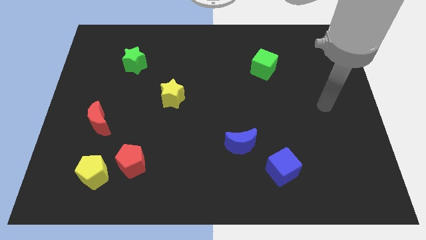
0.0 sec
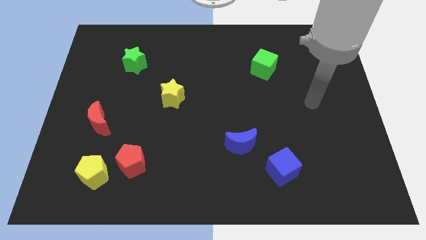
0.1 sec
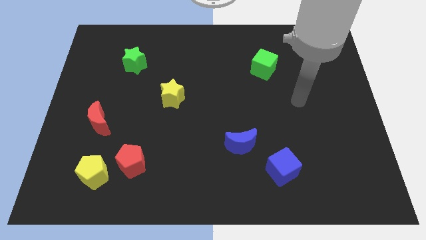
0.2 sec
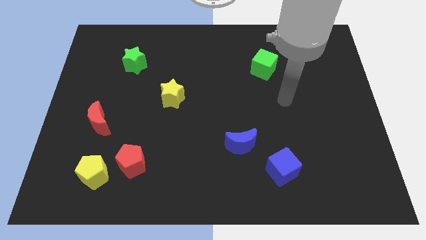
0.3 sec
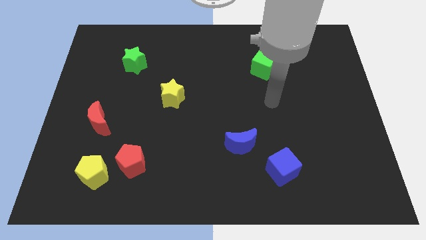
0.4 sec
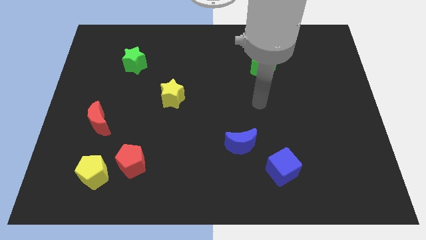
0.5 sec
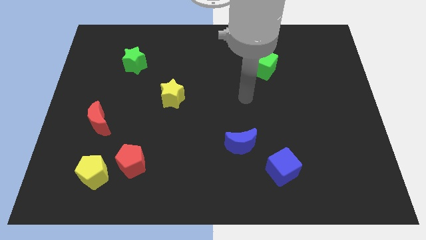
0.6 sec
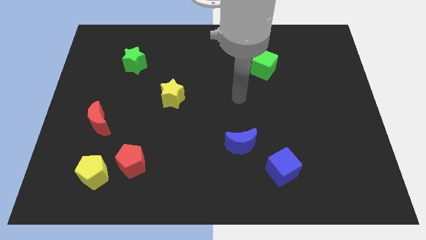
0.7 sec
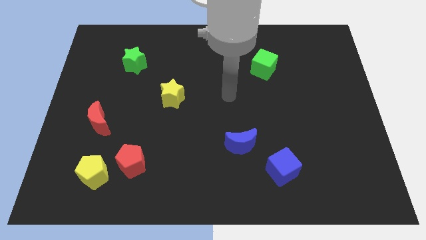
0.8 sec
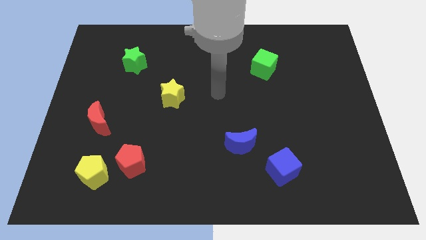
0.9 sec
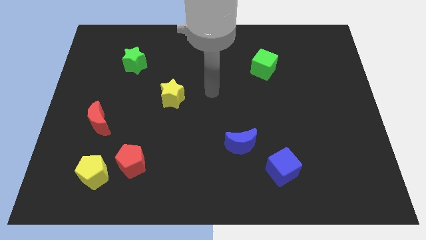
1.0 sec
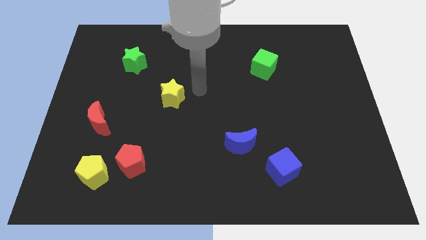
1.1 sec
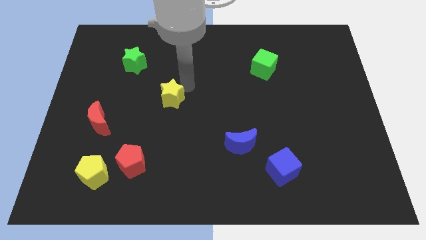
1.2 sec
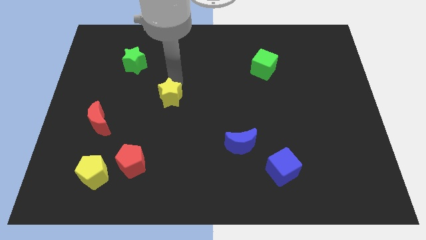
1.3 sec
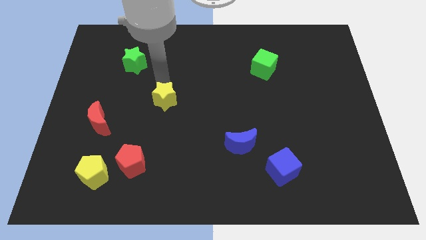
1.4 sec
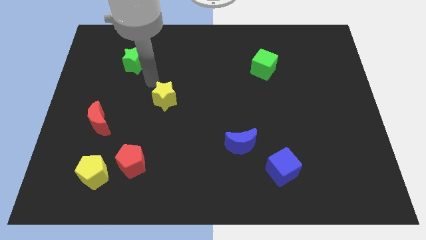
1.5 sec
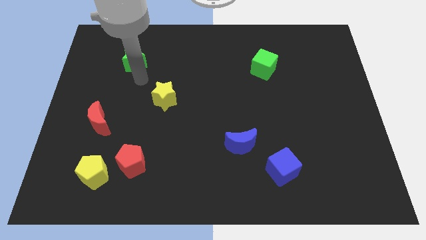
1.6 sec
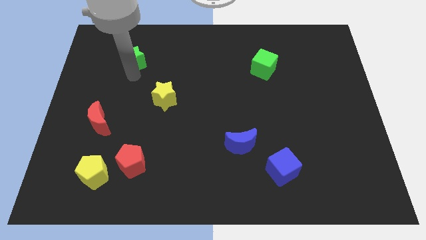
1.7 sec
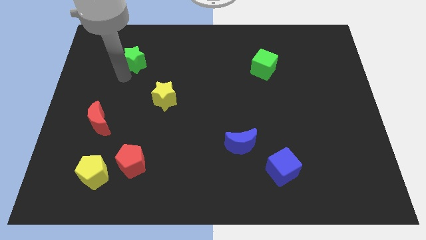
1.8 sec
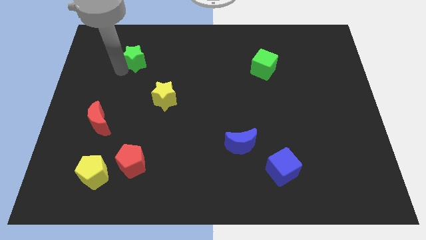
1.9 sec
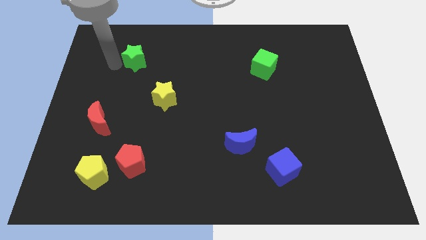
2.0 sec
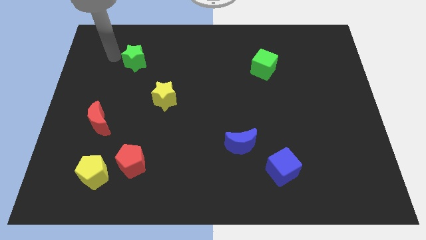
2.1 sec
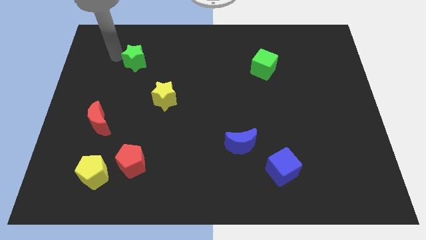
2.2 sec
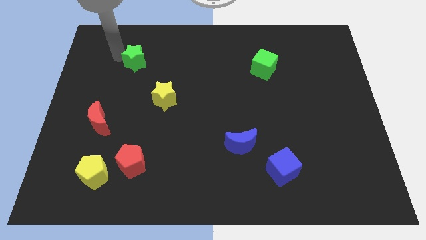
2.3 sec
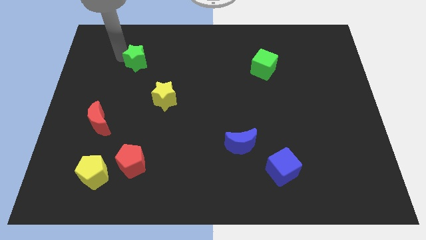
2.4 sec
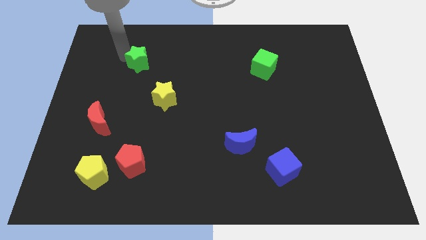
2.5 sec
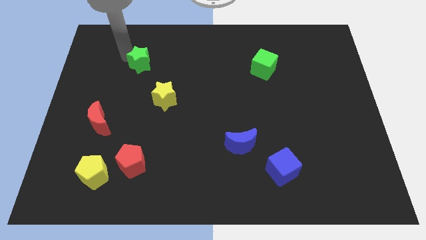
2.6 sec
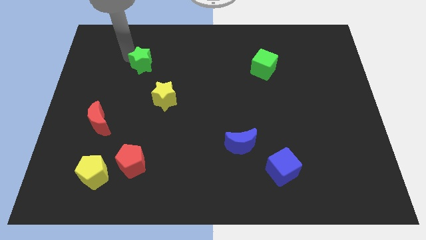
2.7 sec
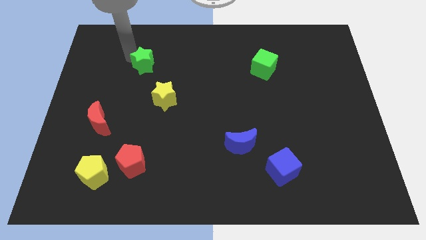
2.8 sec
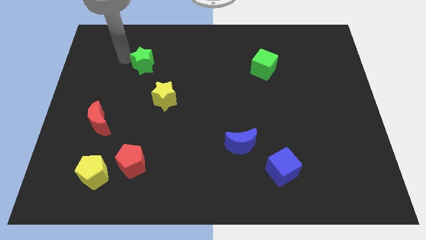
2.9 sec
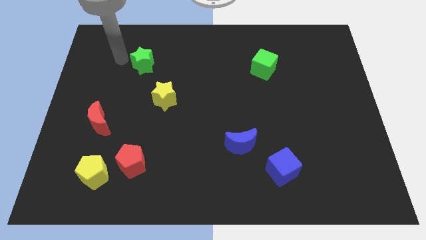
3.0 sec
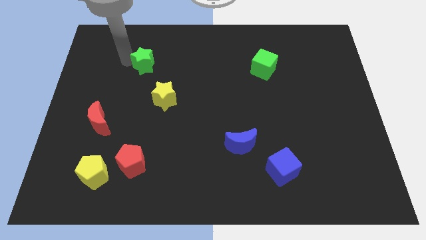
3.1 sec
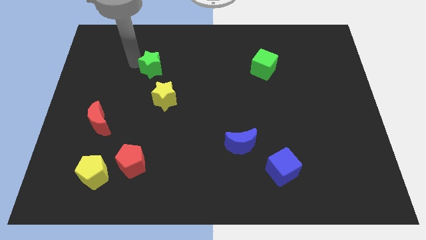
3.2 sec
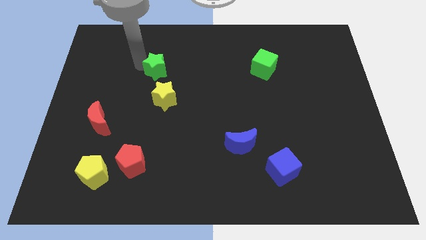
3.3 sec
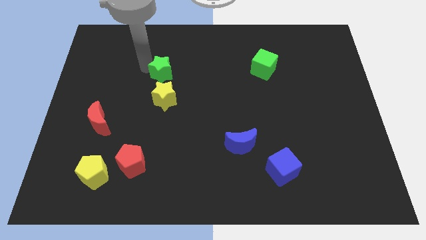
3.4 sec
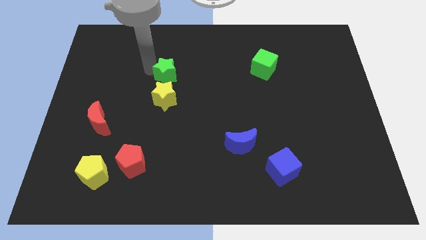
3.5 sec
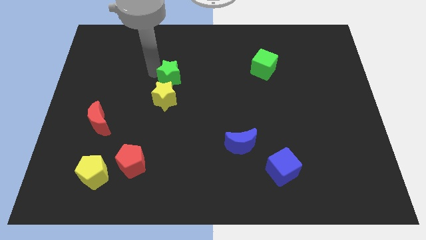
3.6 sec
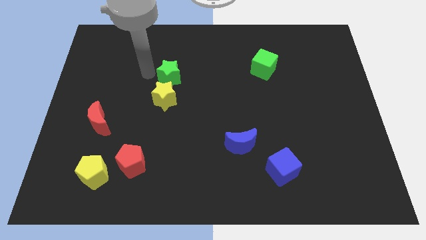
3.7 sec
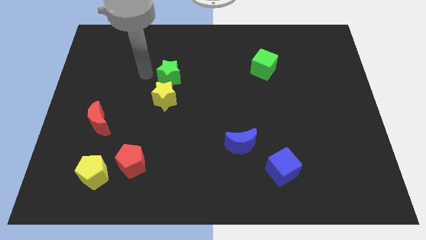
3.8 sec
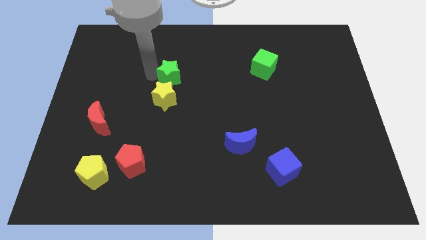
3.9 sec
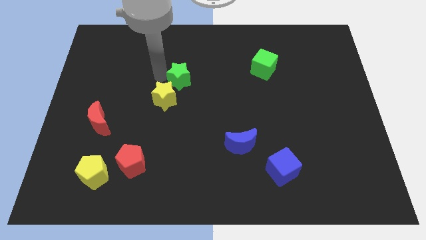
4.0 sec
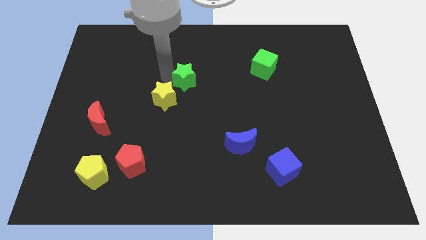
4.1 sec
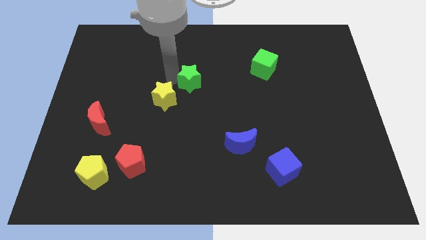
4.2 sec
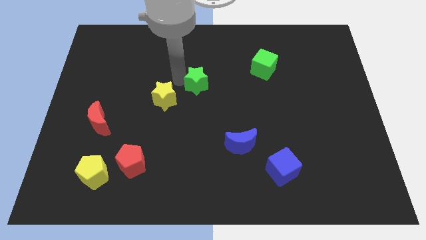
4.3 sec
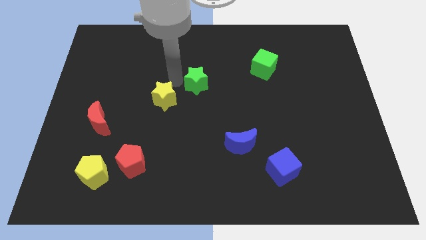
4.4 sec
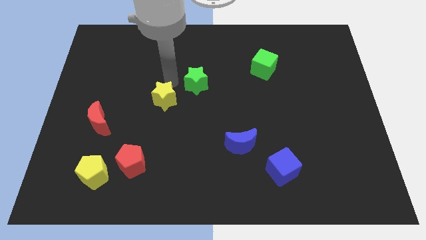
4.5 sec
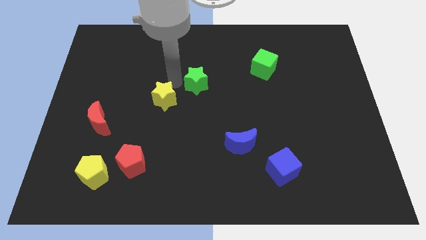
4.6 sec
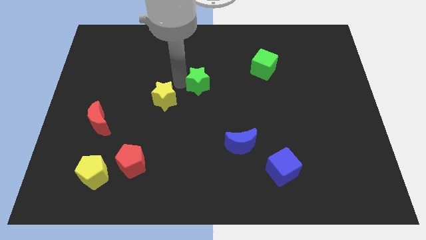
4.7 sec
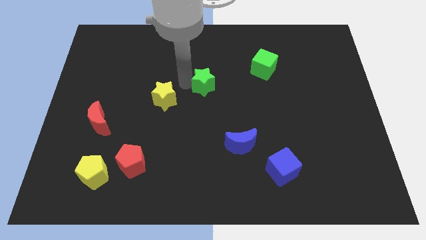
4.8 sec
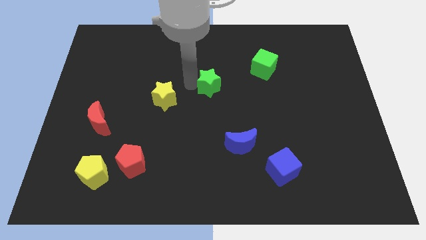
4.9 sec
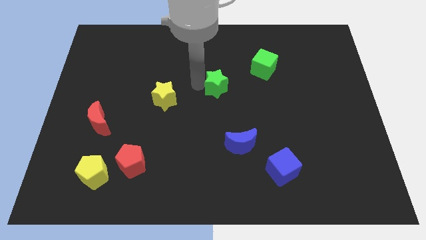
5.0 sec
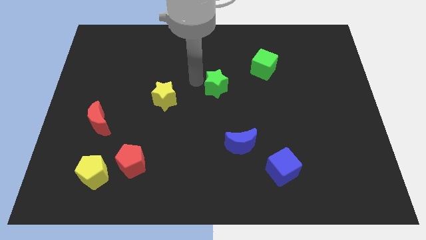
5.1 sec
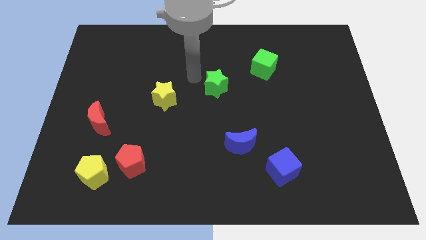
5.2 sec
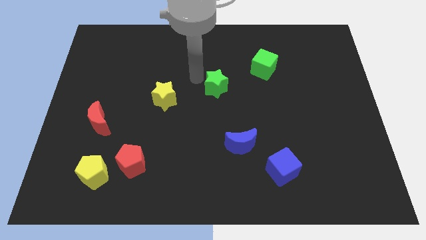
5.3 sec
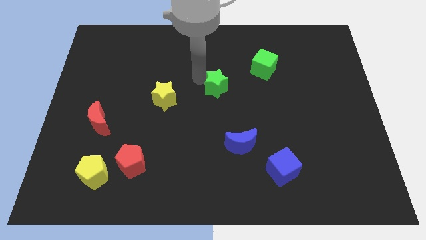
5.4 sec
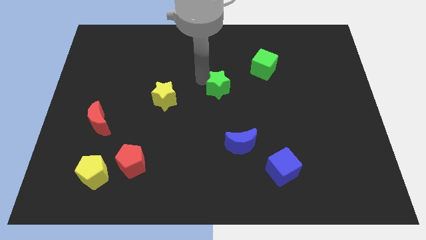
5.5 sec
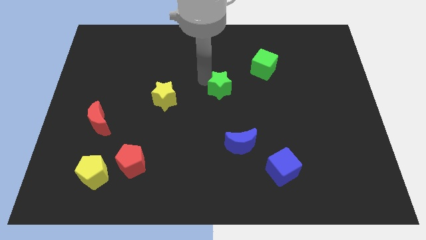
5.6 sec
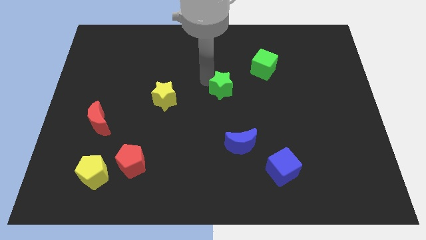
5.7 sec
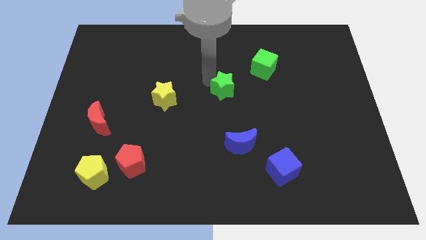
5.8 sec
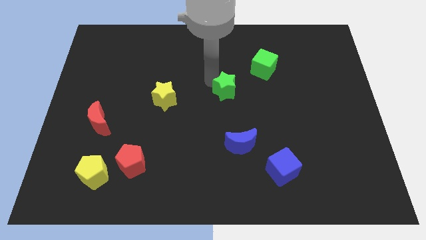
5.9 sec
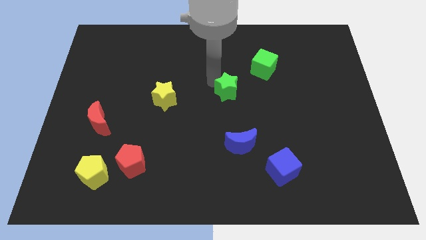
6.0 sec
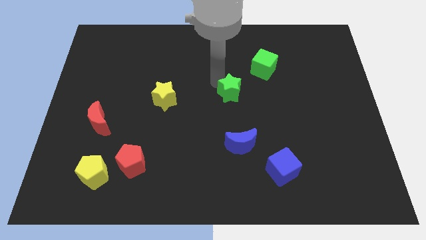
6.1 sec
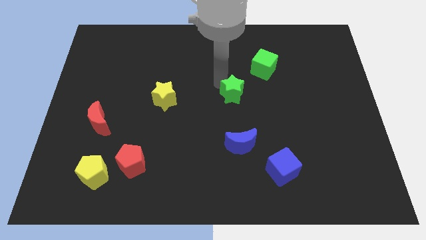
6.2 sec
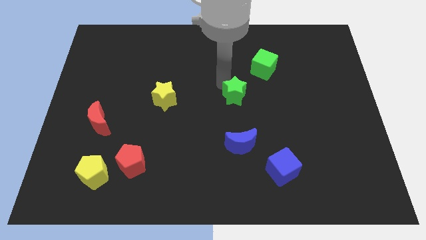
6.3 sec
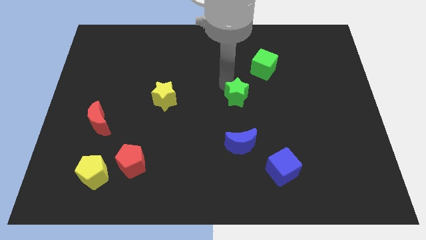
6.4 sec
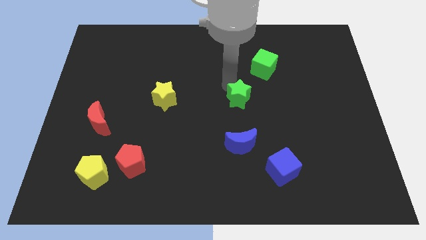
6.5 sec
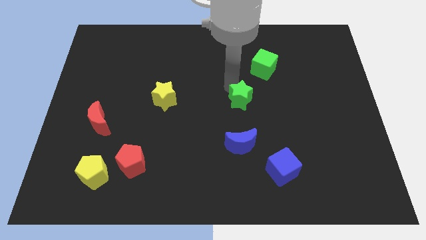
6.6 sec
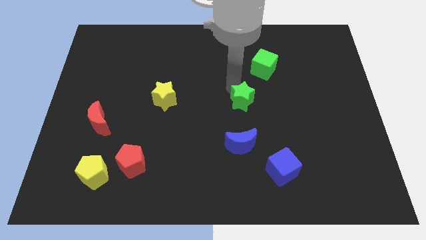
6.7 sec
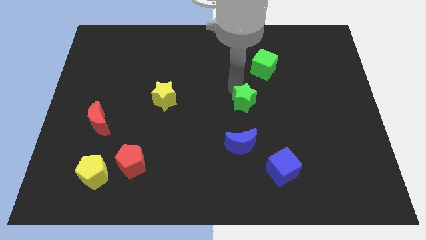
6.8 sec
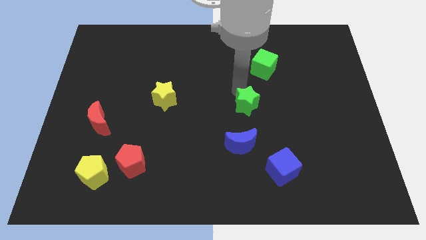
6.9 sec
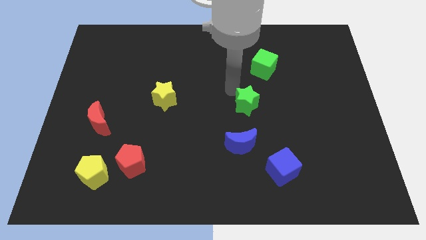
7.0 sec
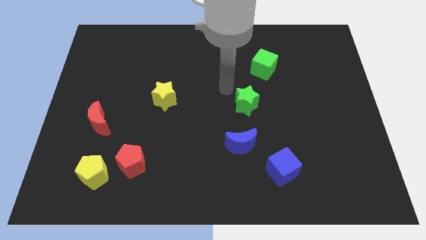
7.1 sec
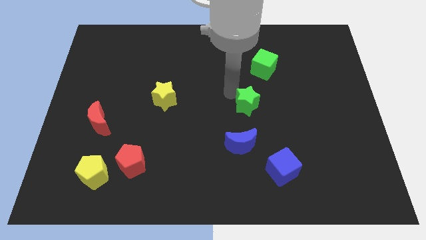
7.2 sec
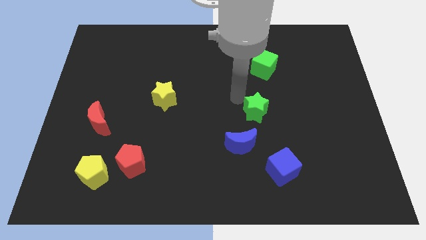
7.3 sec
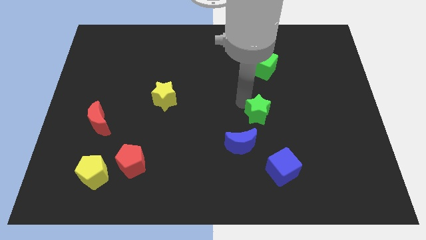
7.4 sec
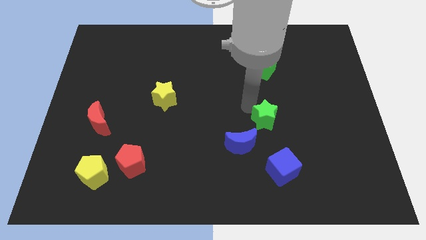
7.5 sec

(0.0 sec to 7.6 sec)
put the green star to the top of the blue cube

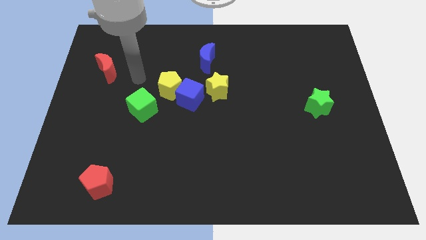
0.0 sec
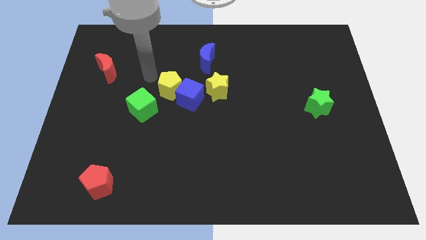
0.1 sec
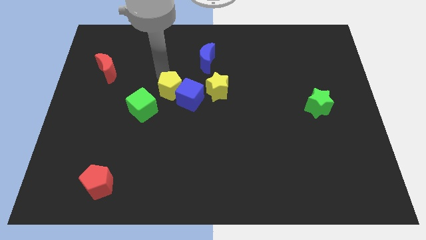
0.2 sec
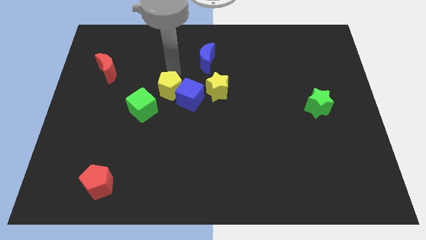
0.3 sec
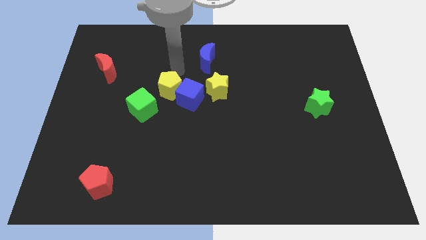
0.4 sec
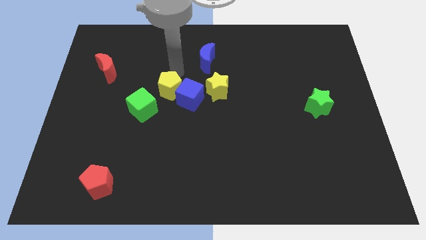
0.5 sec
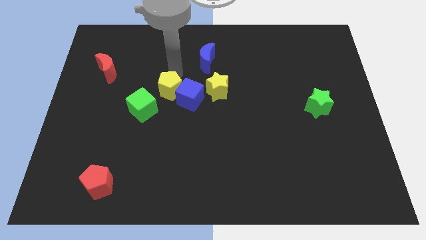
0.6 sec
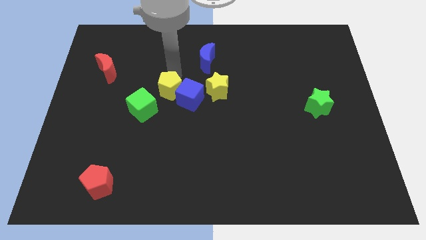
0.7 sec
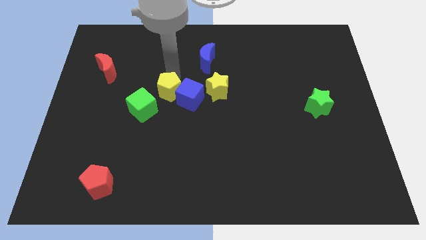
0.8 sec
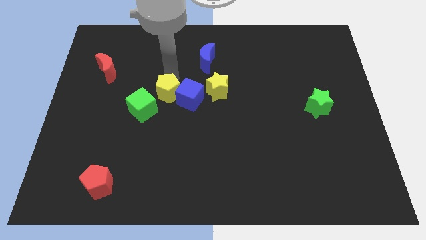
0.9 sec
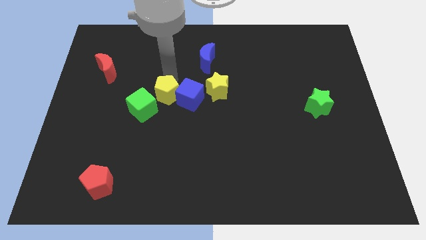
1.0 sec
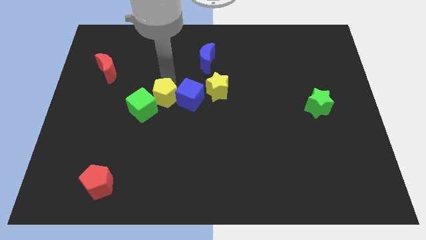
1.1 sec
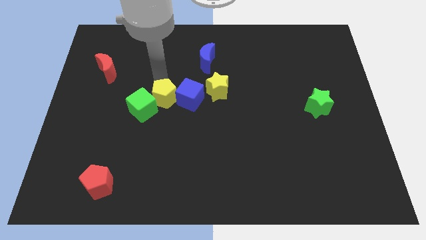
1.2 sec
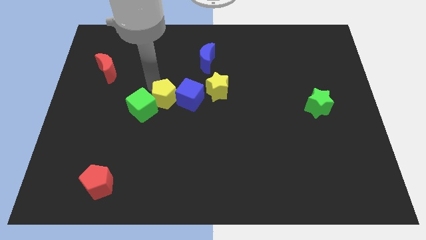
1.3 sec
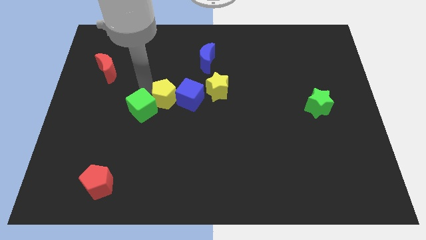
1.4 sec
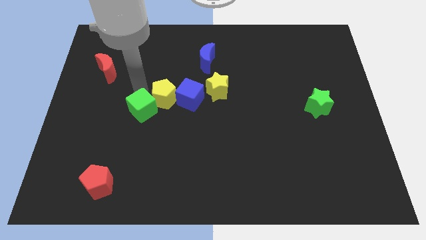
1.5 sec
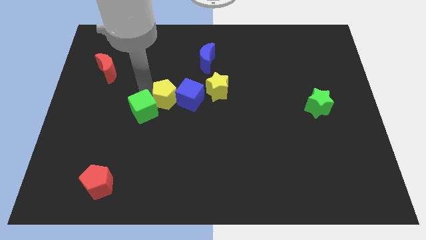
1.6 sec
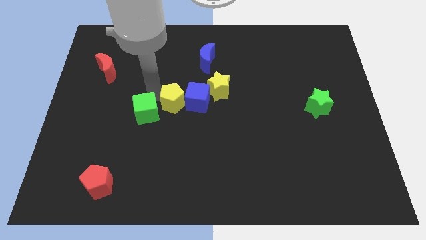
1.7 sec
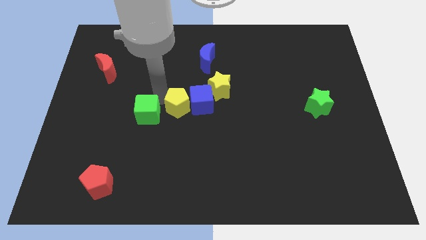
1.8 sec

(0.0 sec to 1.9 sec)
put the yellow pentagon to the bottom left of the yellow star
